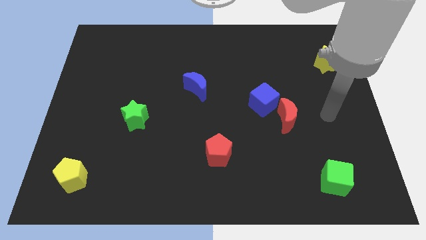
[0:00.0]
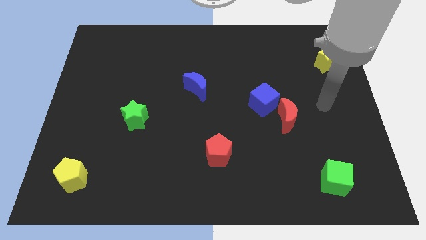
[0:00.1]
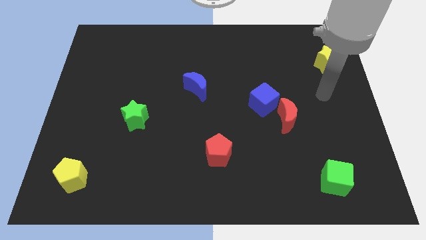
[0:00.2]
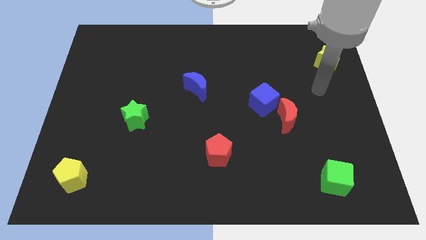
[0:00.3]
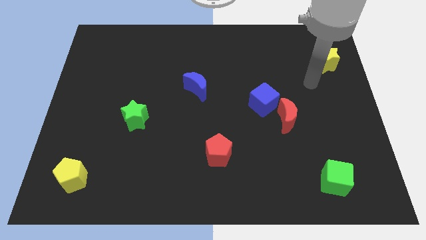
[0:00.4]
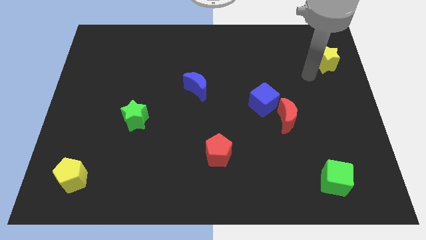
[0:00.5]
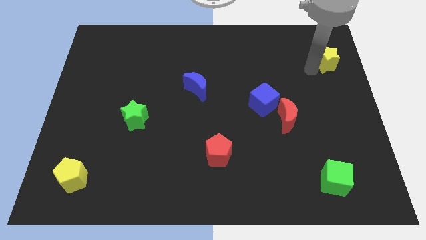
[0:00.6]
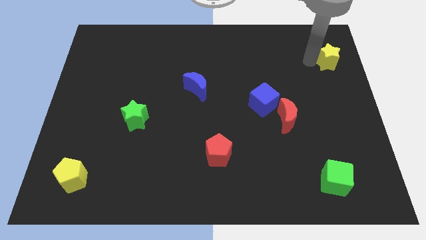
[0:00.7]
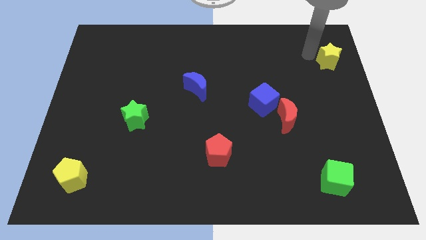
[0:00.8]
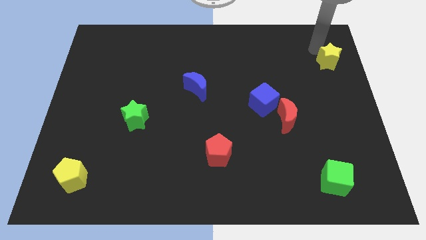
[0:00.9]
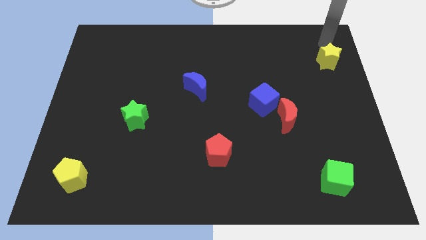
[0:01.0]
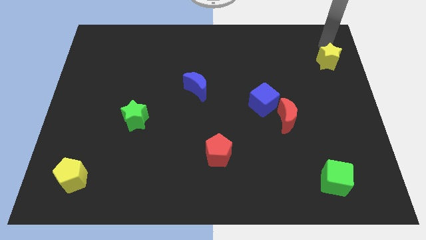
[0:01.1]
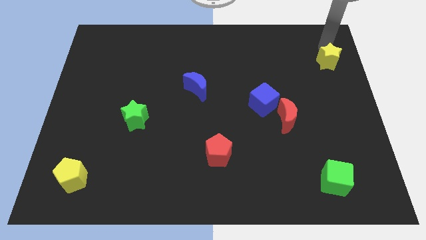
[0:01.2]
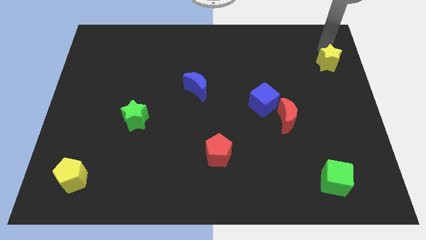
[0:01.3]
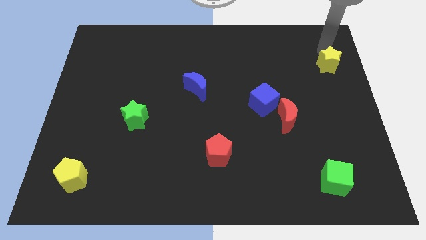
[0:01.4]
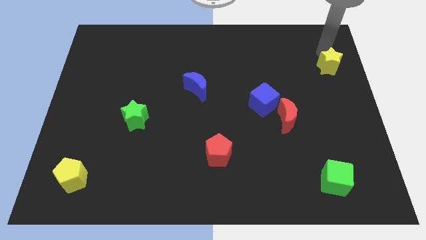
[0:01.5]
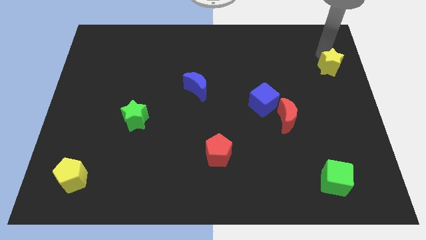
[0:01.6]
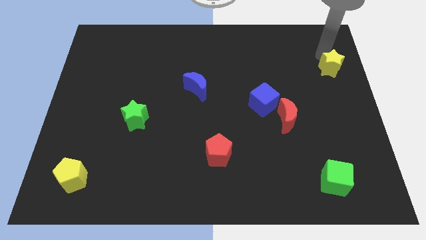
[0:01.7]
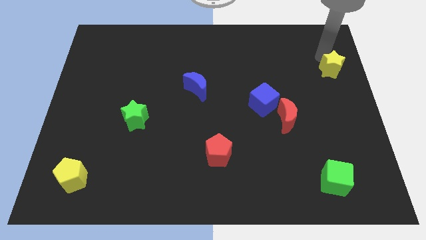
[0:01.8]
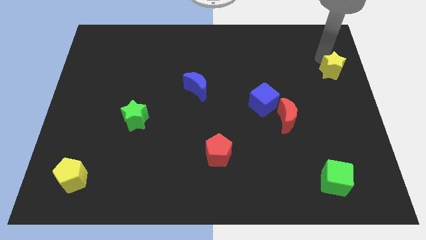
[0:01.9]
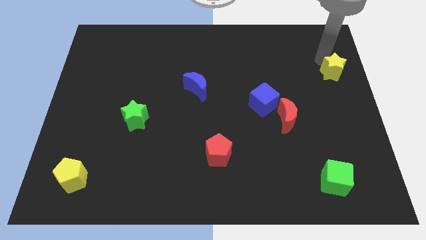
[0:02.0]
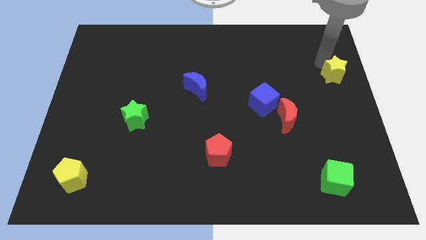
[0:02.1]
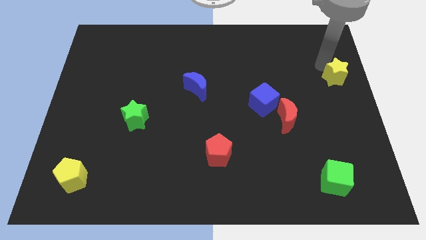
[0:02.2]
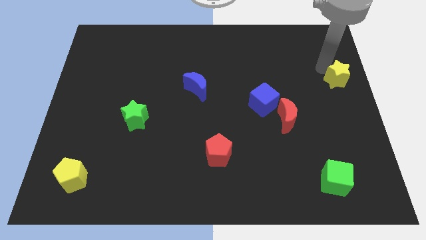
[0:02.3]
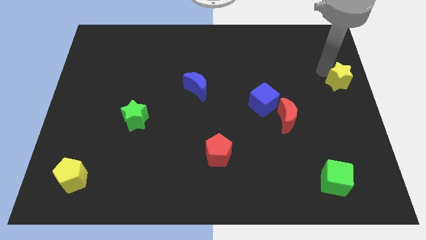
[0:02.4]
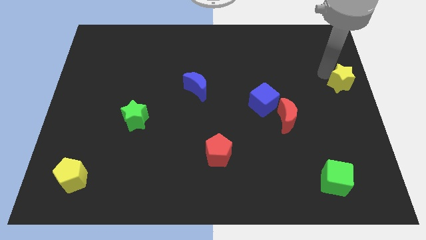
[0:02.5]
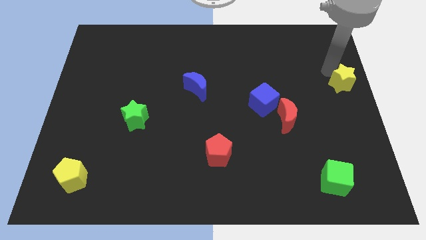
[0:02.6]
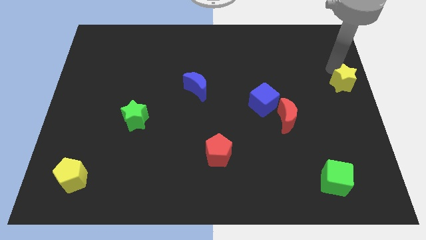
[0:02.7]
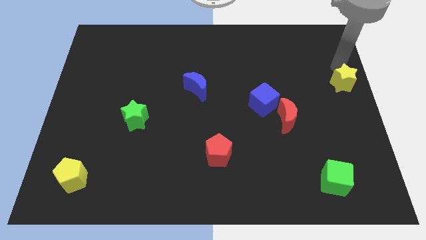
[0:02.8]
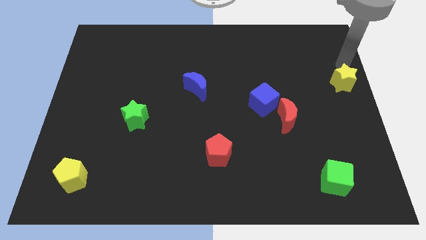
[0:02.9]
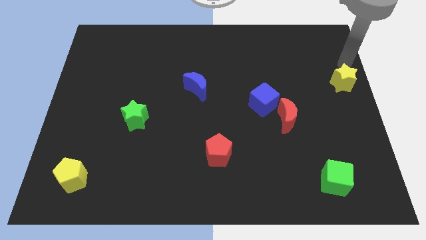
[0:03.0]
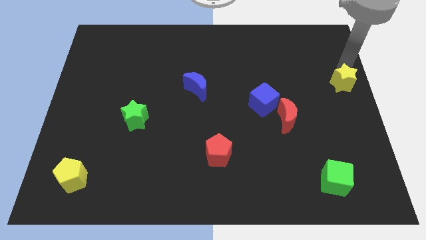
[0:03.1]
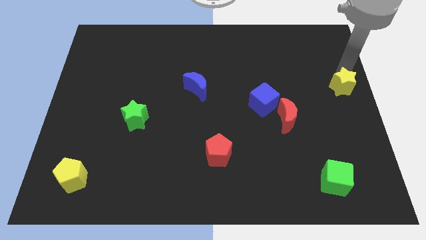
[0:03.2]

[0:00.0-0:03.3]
push the yellow star downwards a bit

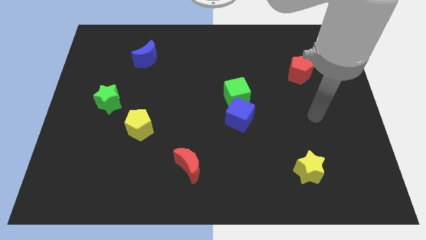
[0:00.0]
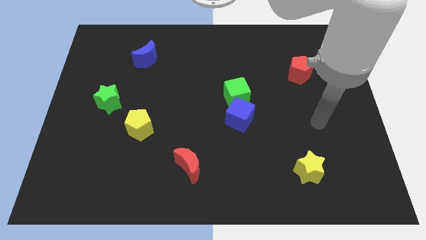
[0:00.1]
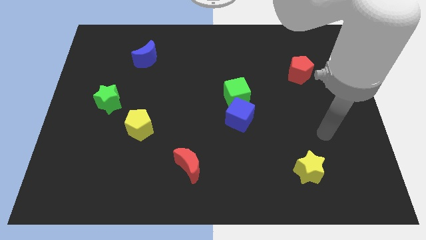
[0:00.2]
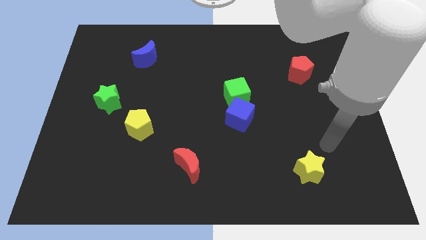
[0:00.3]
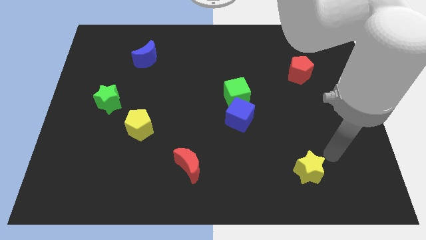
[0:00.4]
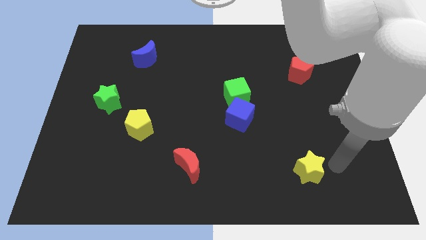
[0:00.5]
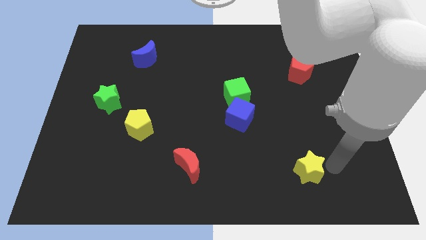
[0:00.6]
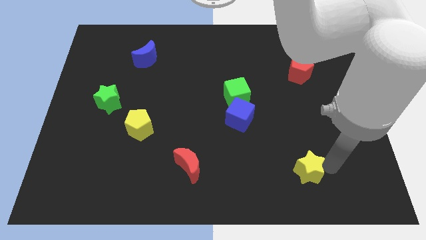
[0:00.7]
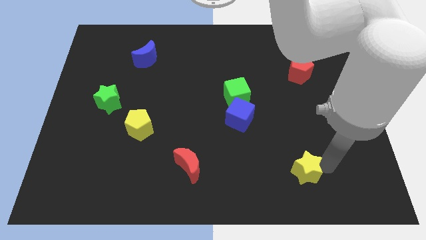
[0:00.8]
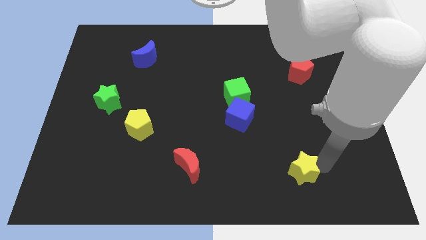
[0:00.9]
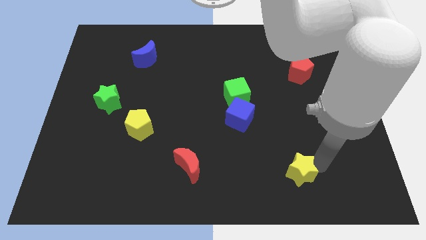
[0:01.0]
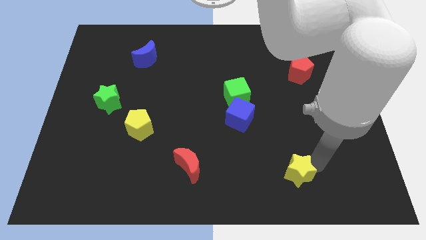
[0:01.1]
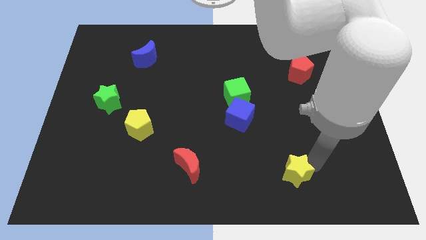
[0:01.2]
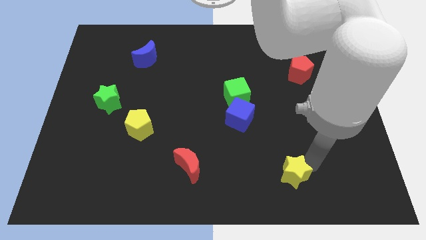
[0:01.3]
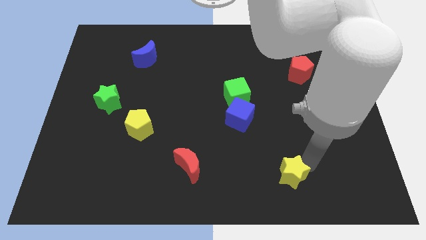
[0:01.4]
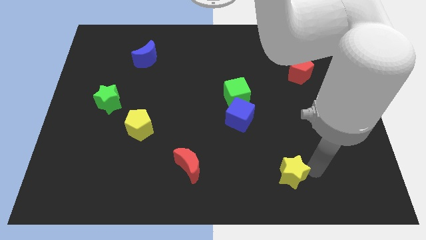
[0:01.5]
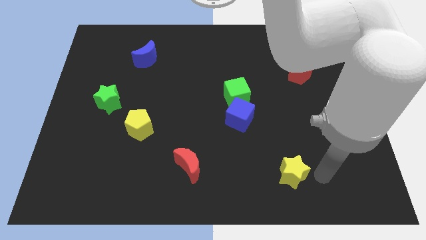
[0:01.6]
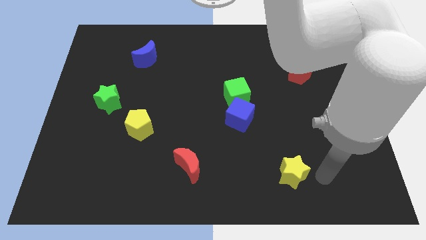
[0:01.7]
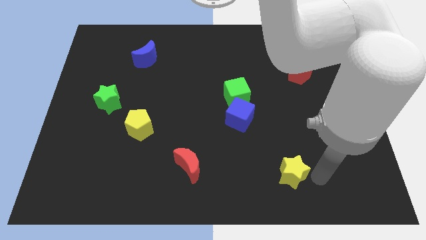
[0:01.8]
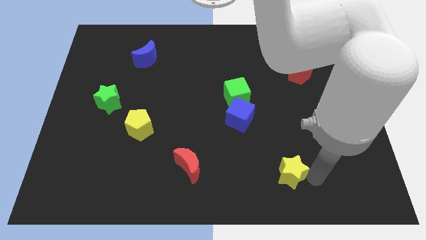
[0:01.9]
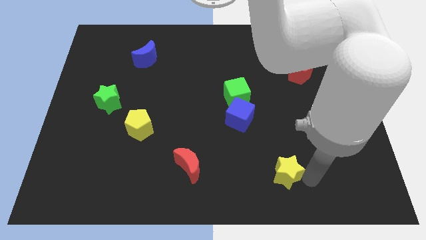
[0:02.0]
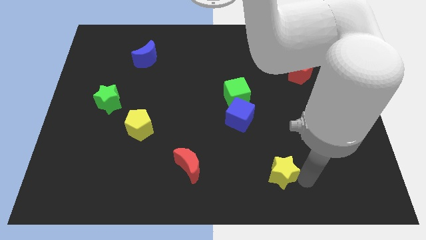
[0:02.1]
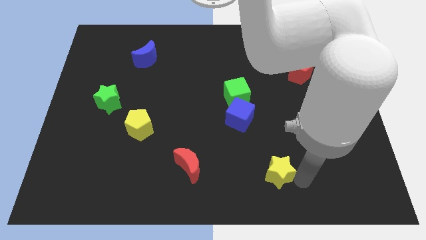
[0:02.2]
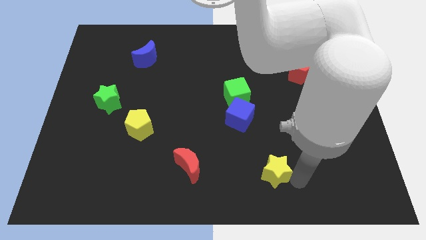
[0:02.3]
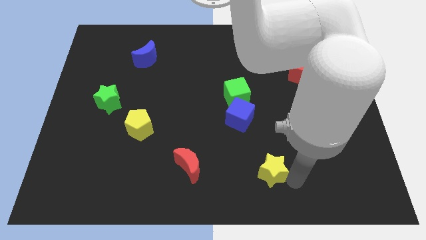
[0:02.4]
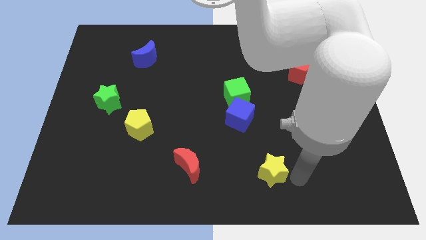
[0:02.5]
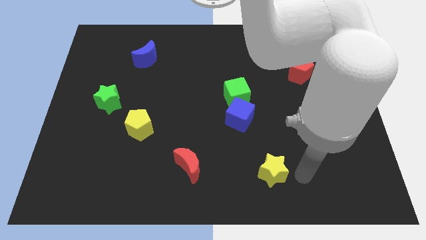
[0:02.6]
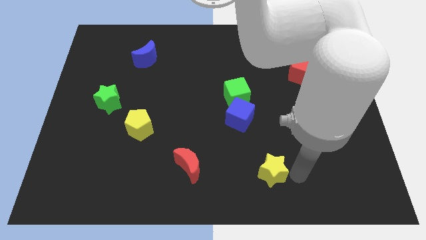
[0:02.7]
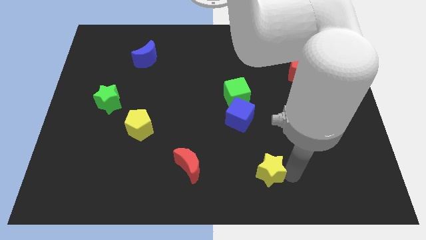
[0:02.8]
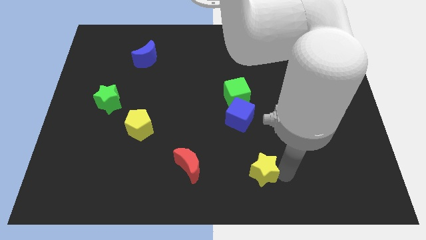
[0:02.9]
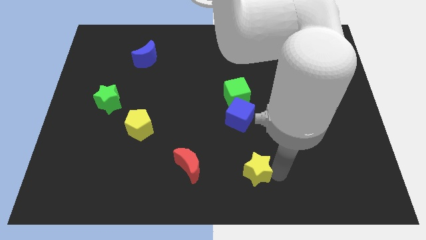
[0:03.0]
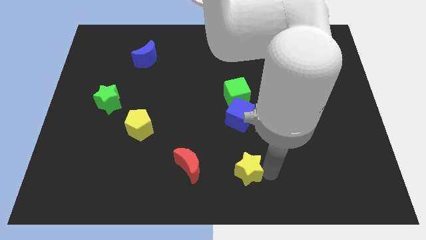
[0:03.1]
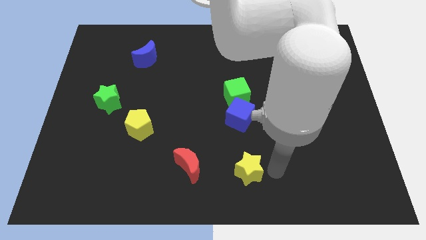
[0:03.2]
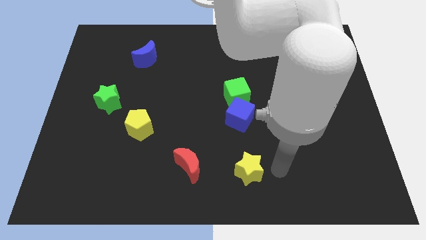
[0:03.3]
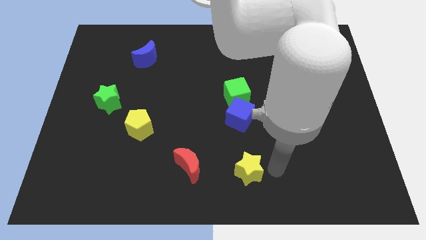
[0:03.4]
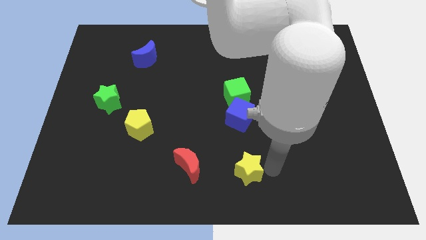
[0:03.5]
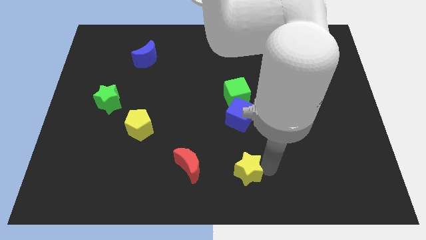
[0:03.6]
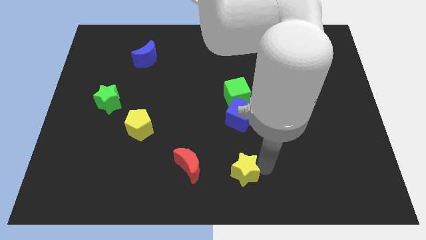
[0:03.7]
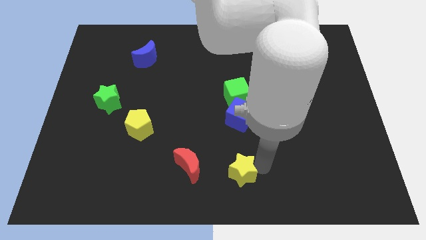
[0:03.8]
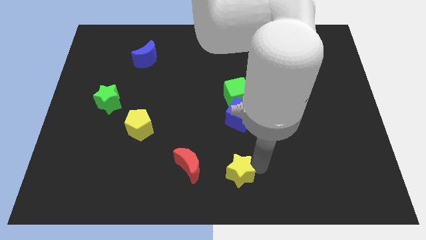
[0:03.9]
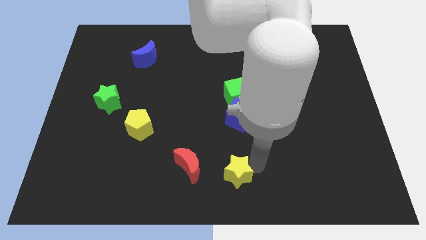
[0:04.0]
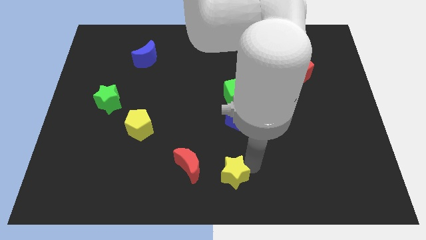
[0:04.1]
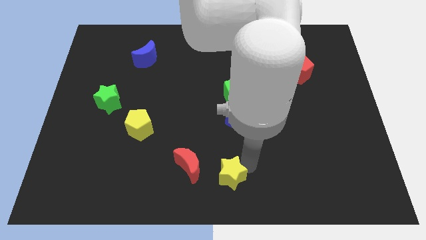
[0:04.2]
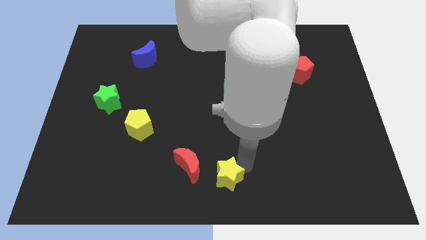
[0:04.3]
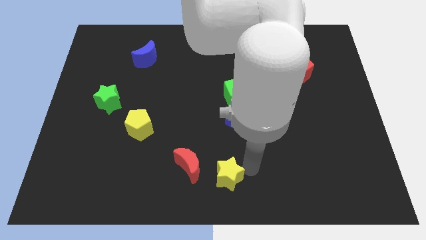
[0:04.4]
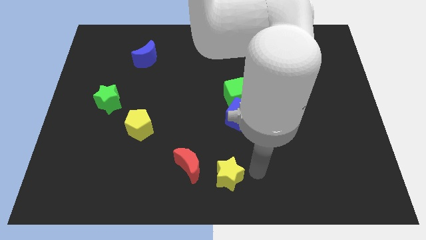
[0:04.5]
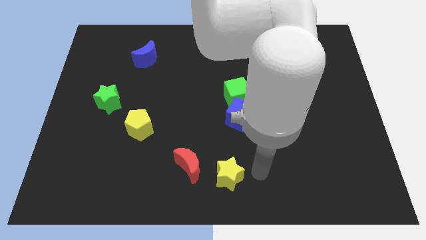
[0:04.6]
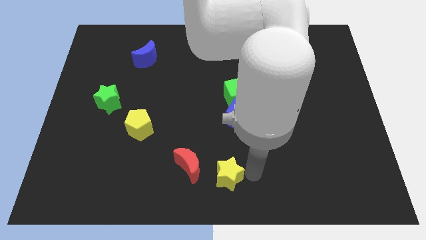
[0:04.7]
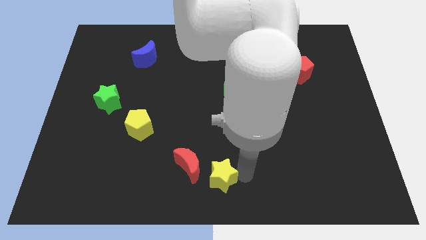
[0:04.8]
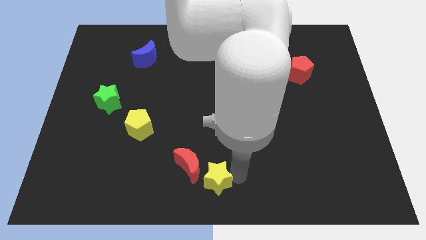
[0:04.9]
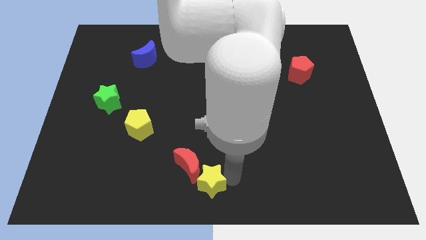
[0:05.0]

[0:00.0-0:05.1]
move the yellow star left
